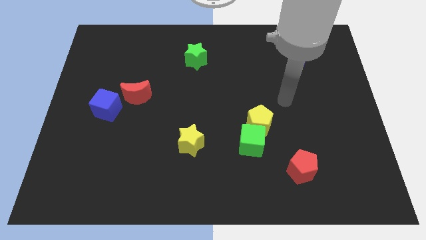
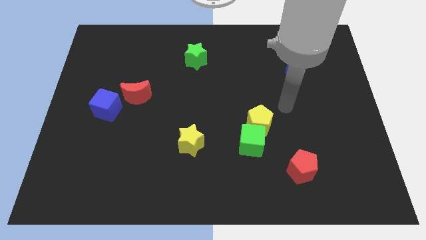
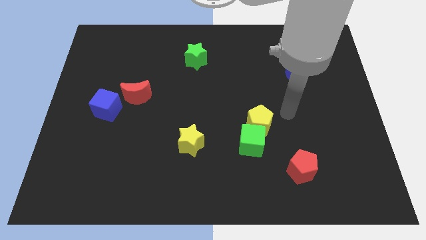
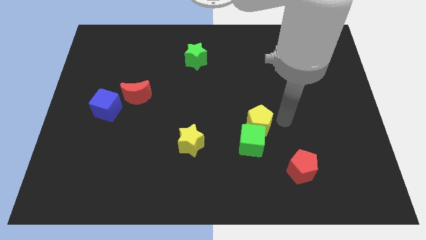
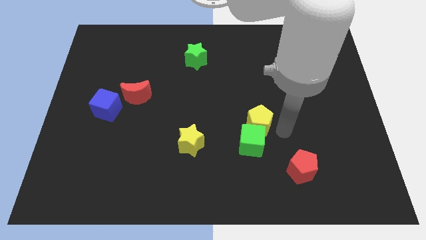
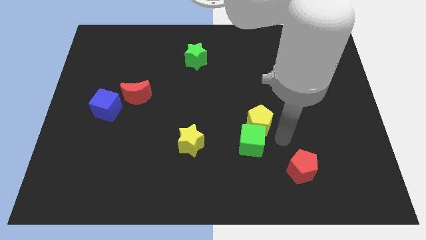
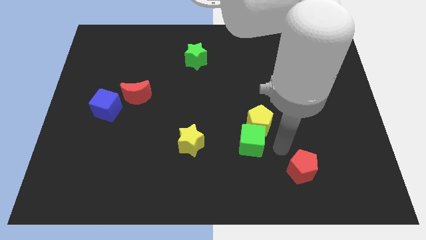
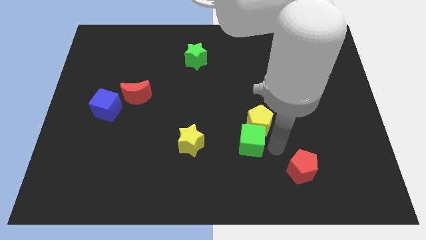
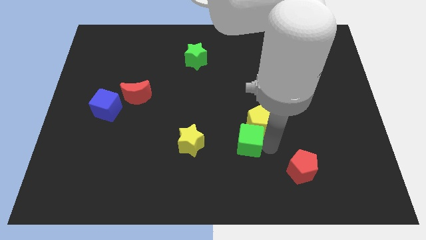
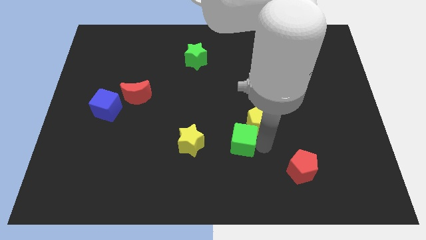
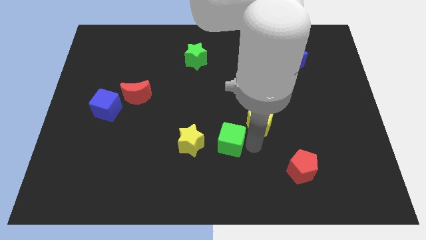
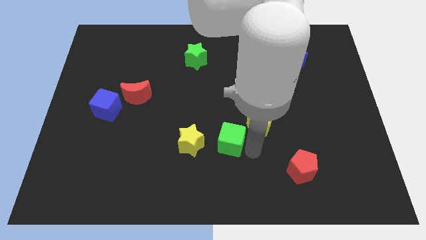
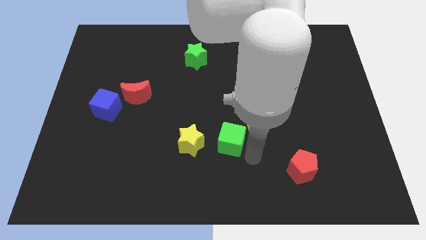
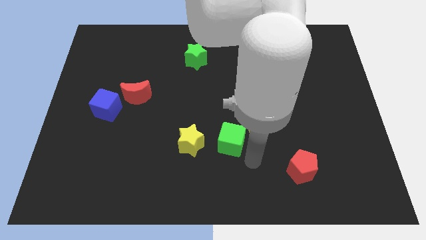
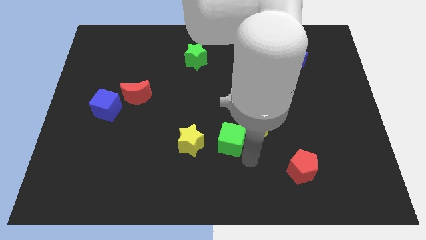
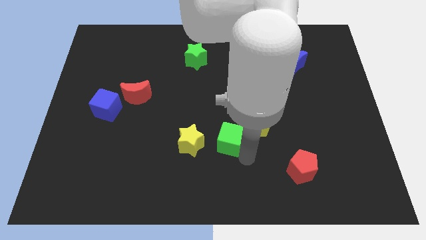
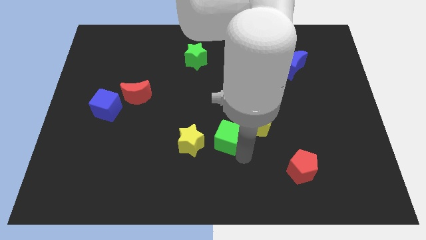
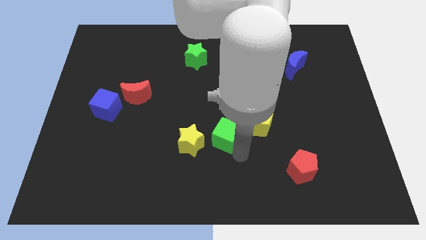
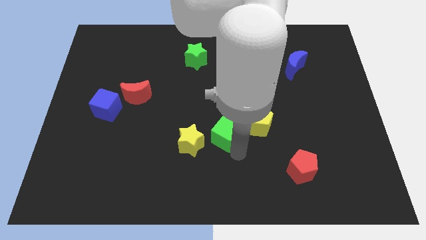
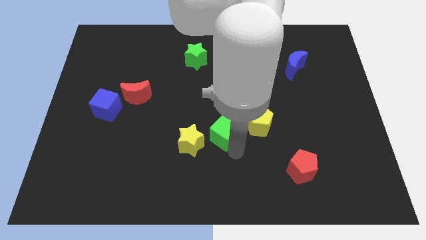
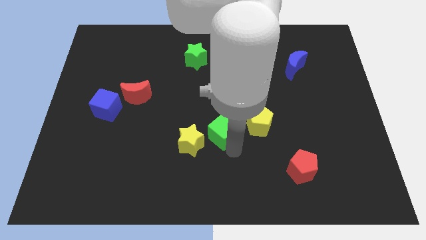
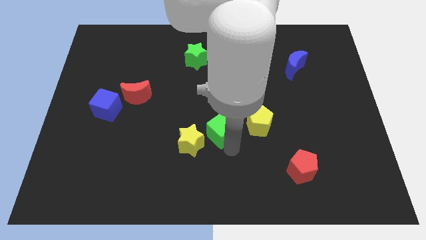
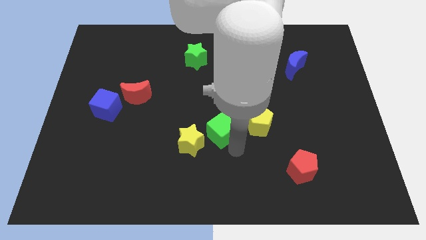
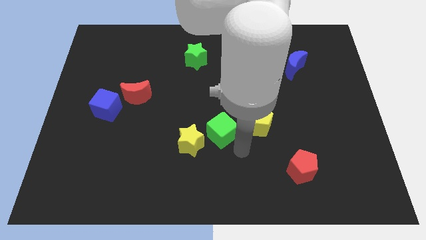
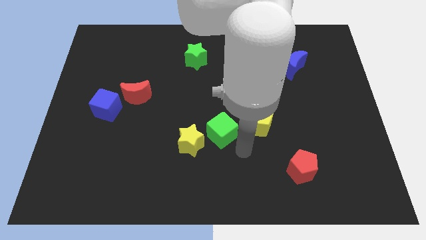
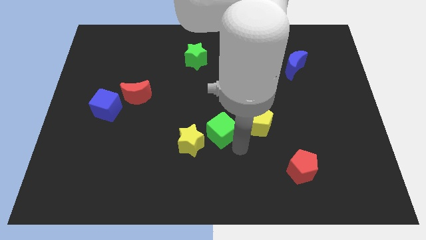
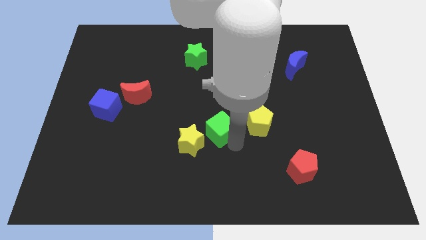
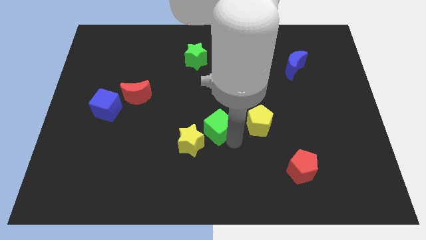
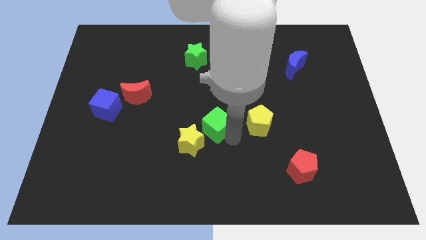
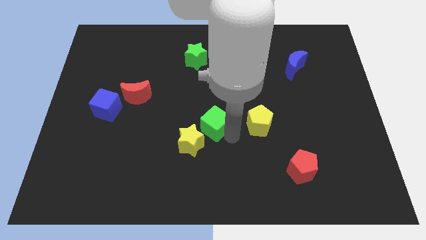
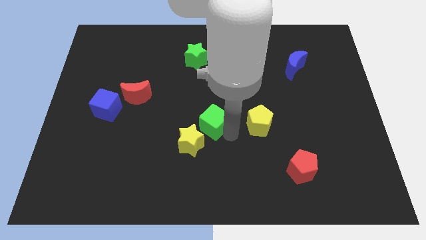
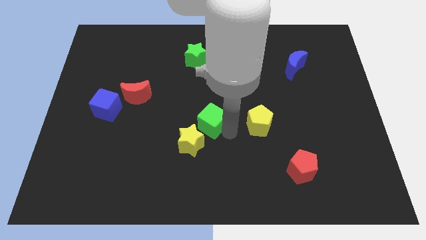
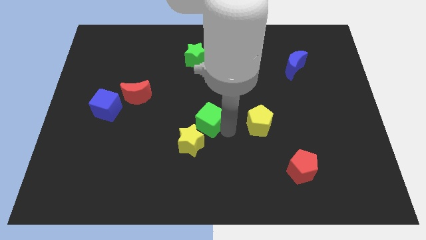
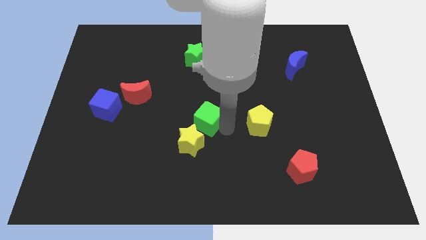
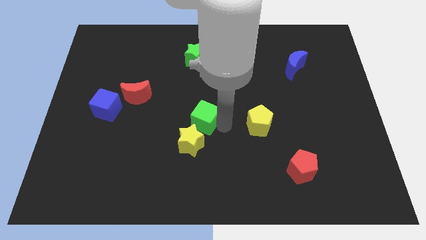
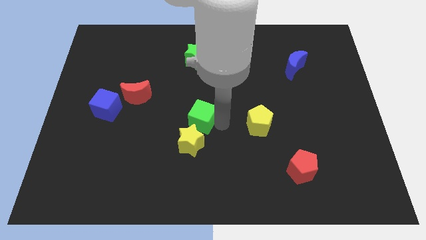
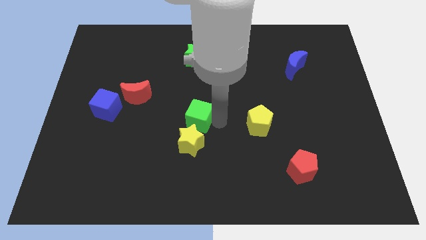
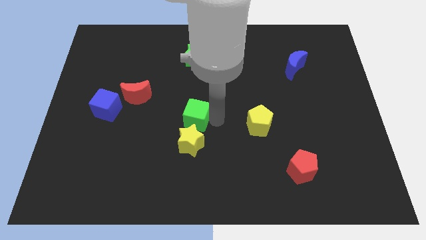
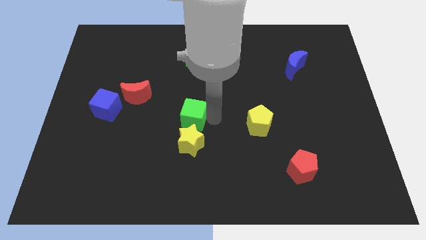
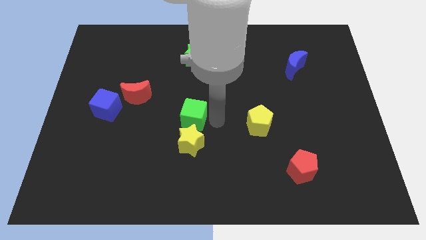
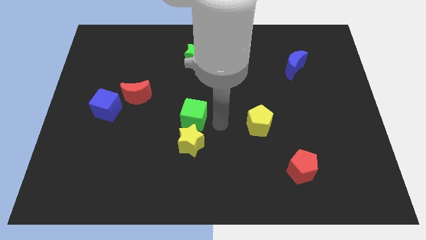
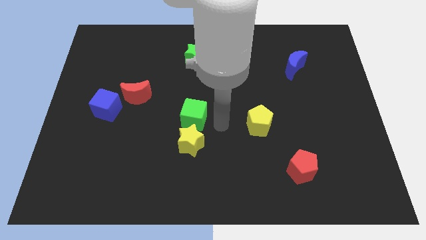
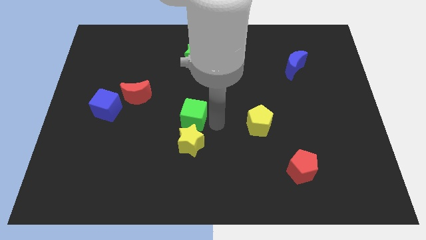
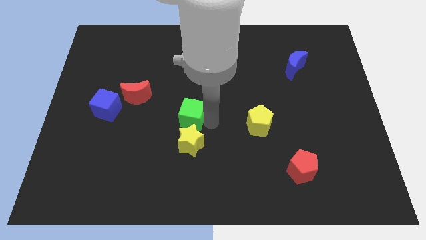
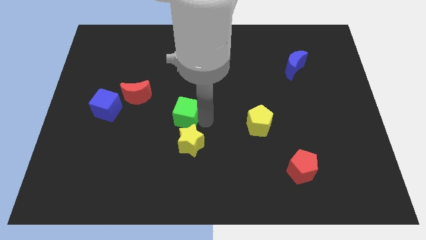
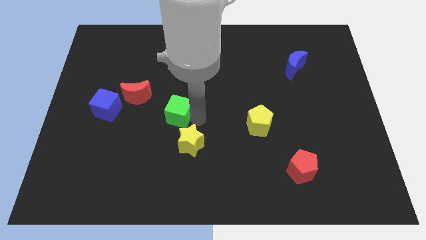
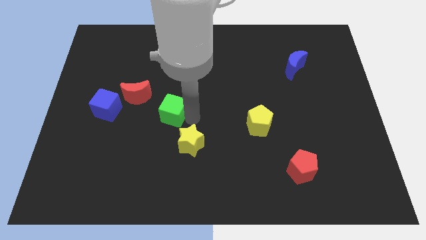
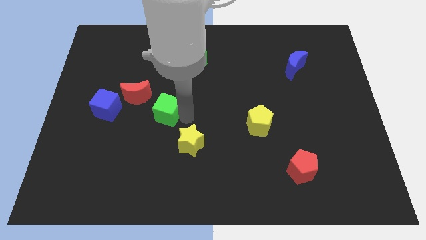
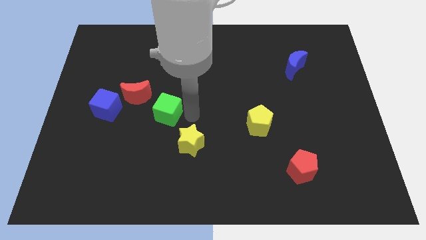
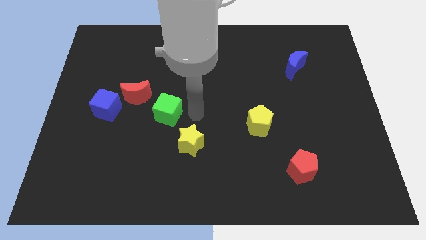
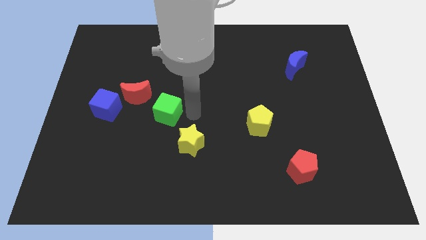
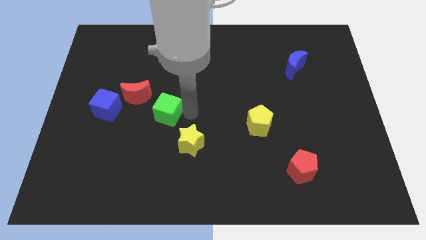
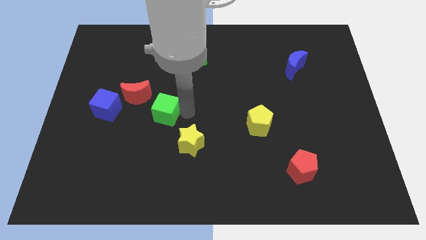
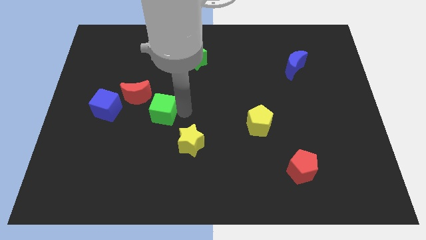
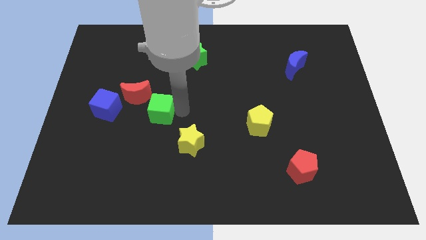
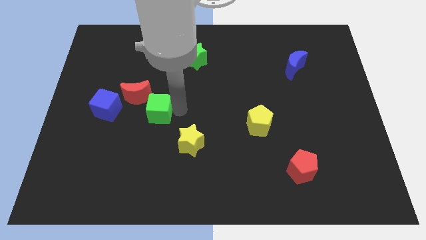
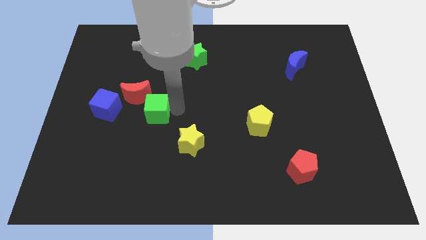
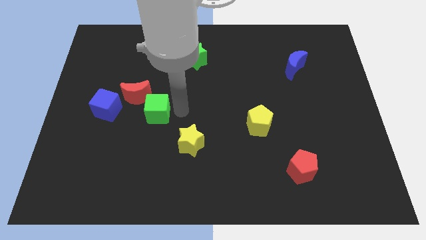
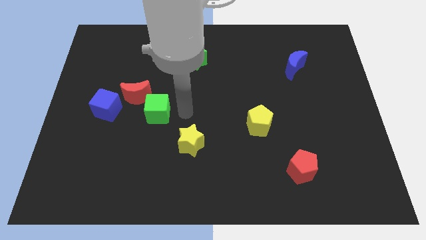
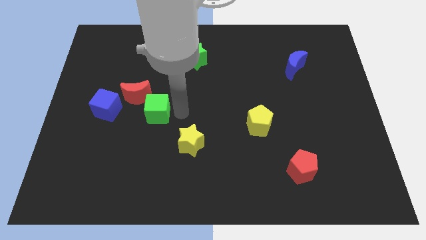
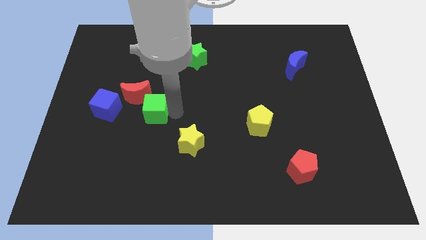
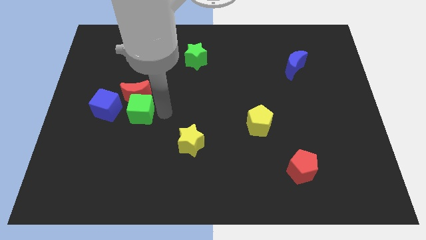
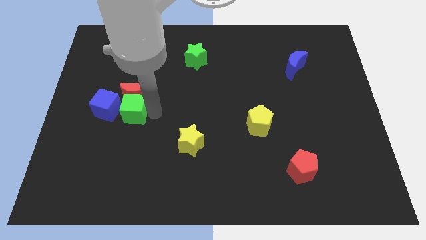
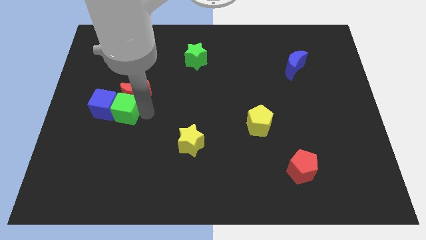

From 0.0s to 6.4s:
push the green cube to the blue cube

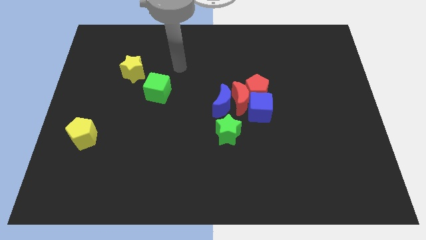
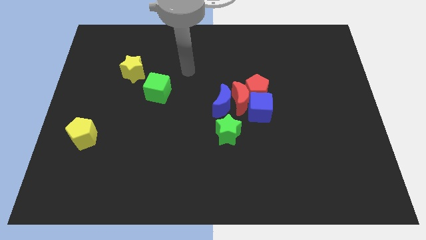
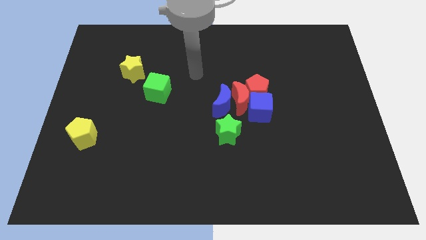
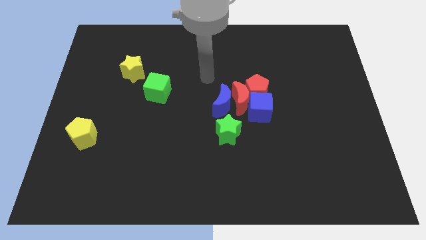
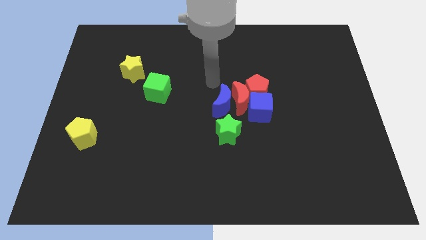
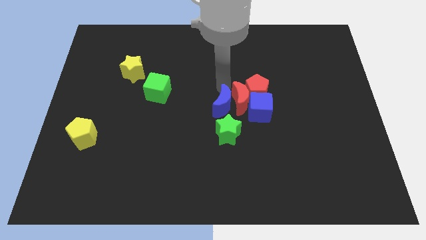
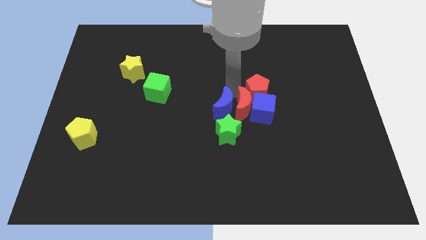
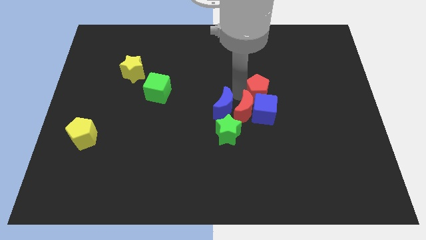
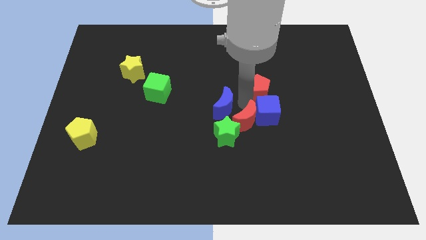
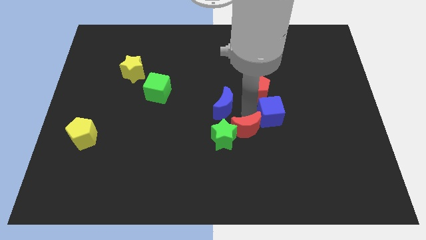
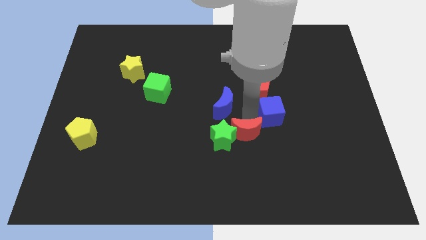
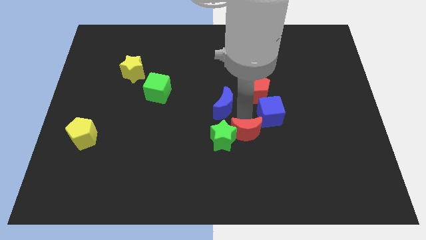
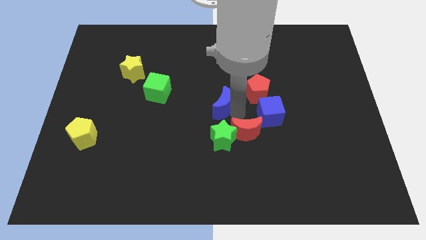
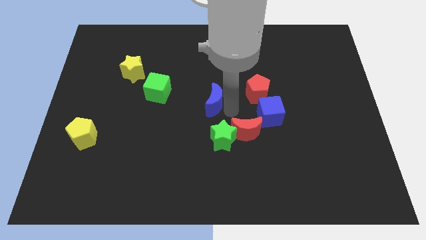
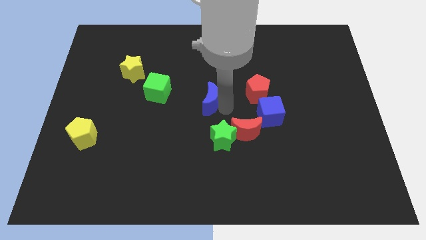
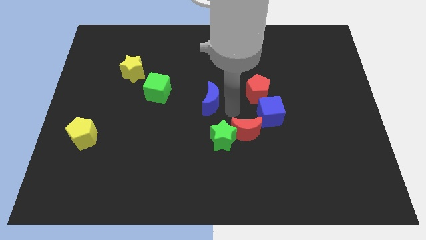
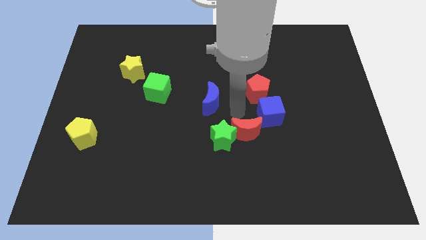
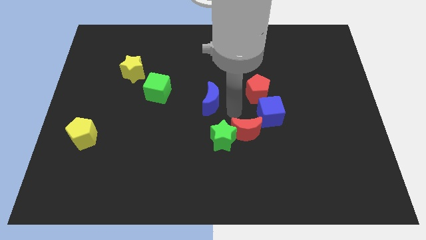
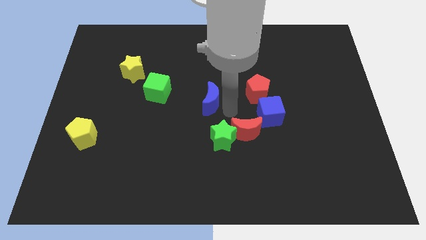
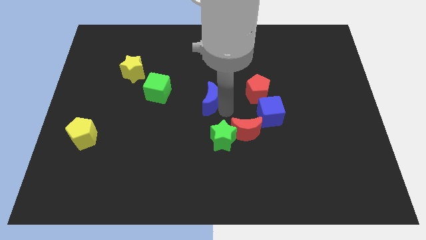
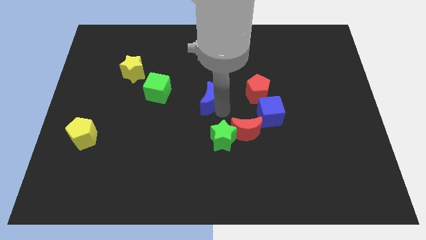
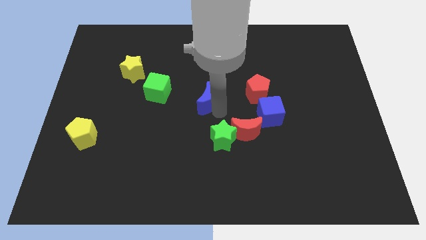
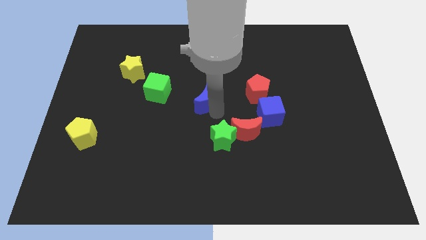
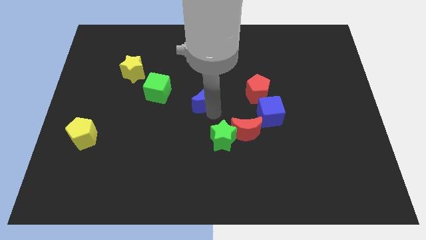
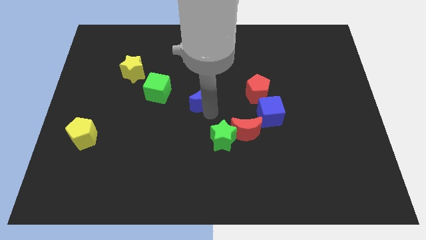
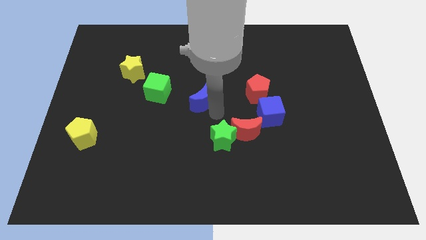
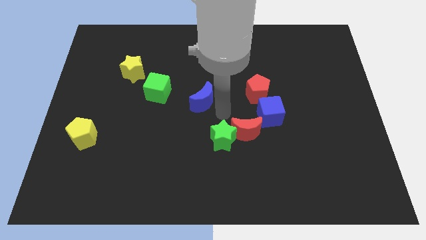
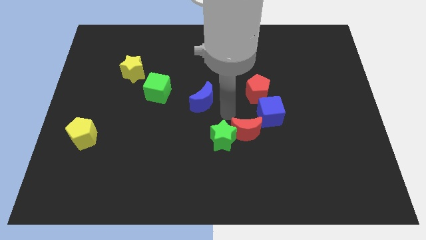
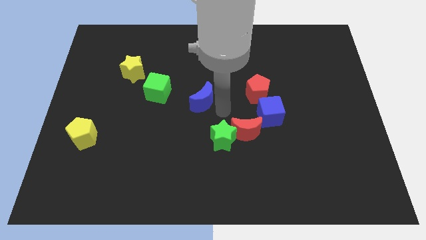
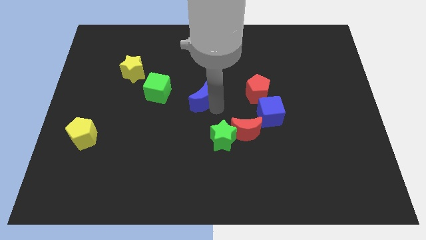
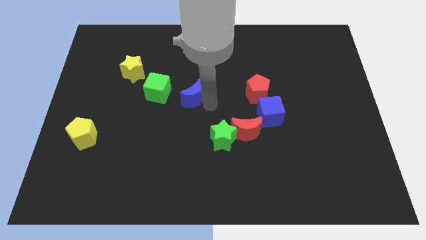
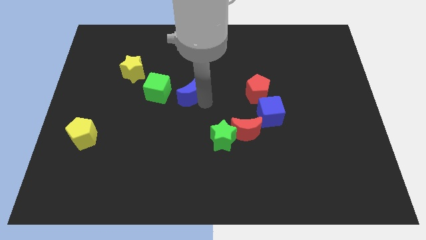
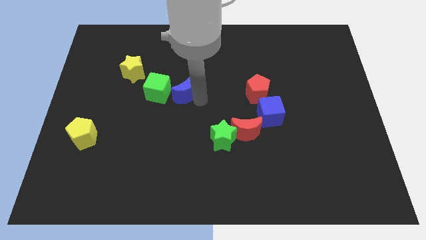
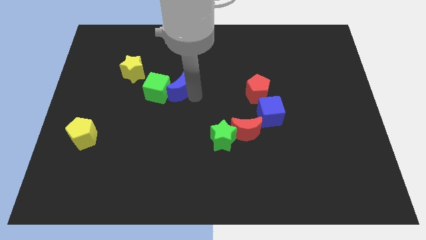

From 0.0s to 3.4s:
push the blue moon towards the green cube
